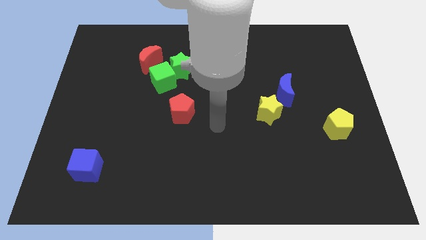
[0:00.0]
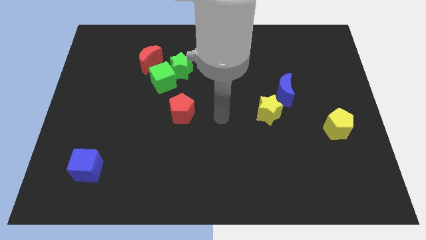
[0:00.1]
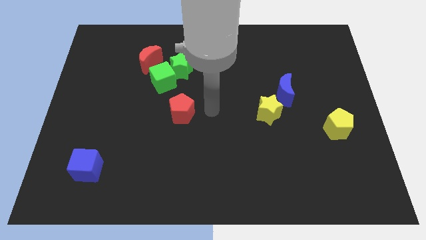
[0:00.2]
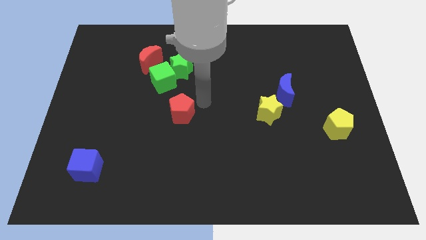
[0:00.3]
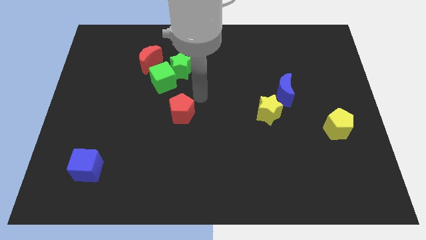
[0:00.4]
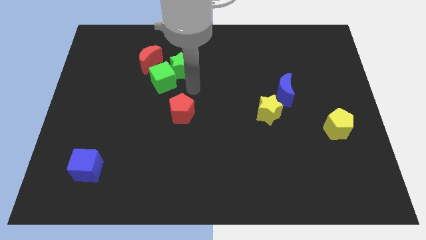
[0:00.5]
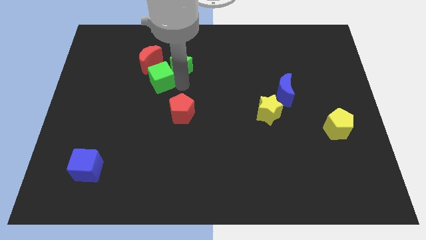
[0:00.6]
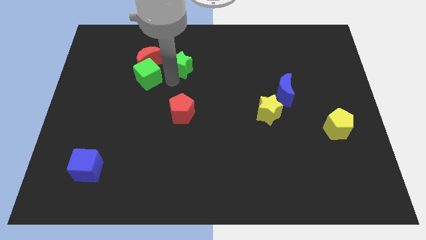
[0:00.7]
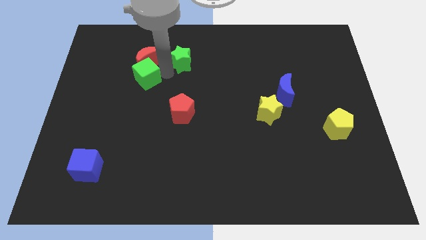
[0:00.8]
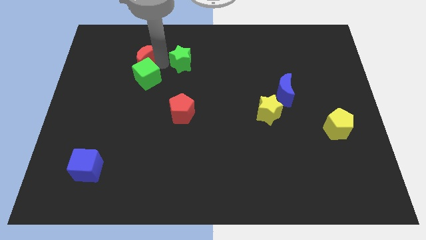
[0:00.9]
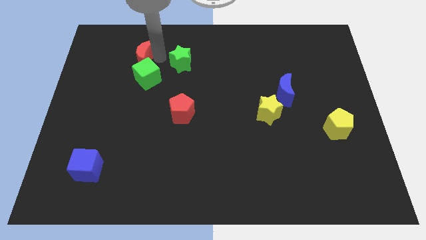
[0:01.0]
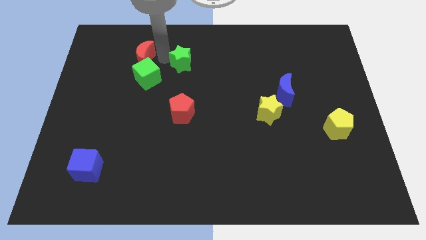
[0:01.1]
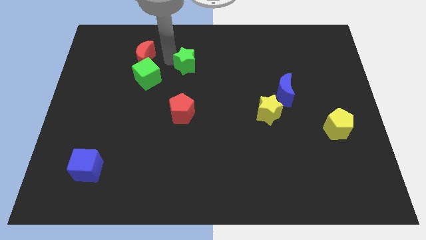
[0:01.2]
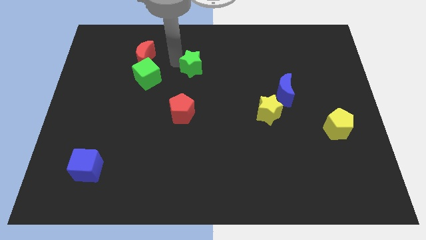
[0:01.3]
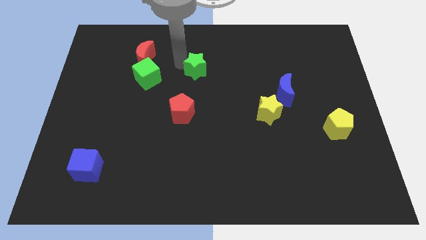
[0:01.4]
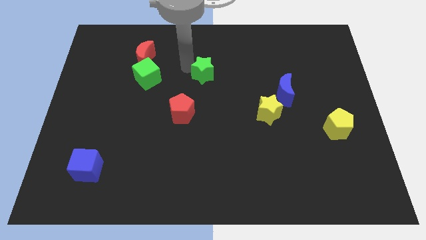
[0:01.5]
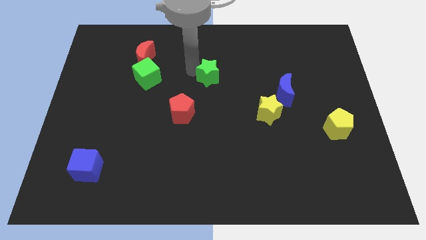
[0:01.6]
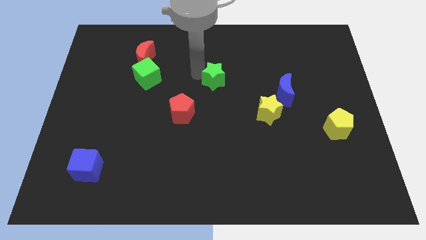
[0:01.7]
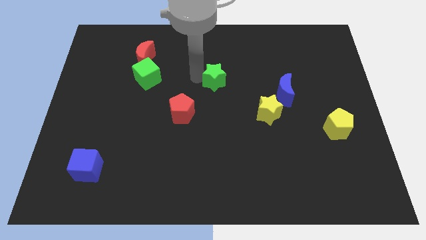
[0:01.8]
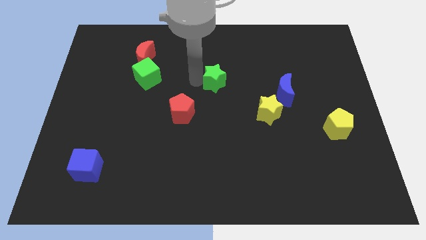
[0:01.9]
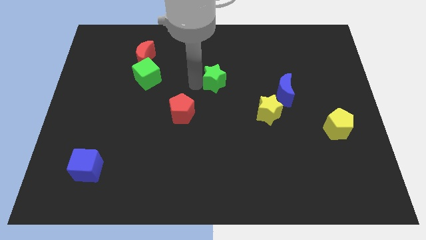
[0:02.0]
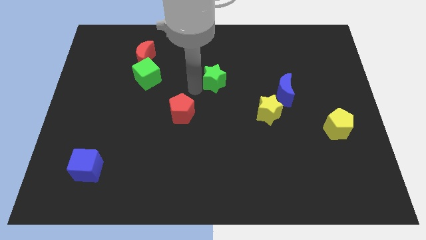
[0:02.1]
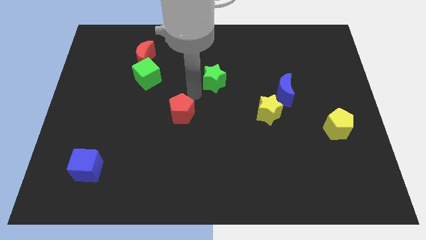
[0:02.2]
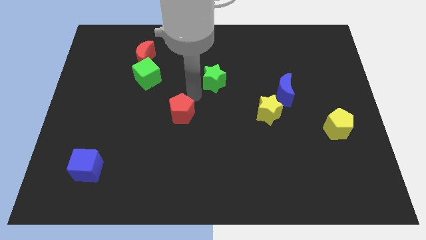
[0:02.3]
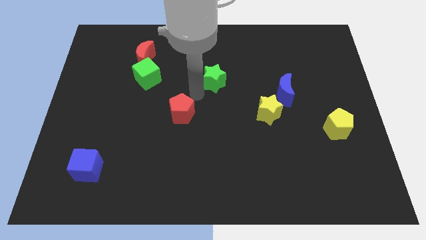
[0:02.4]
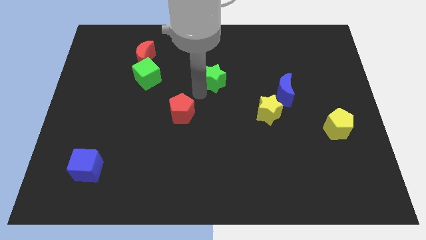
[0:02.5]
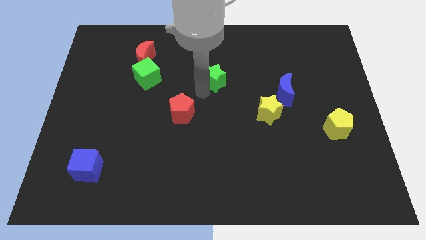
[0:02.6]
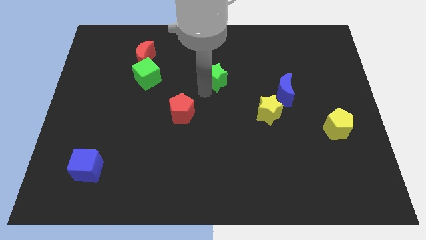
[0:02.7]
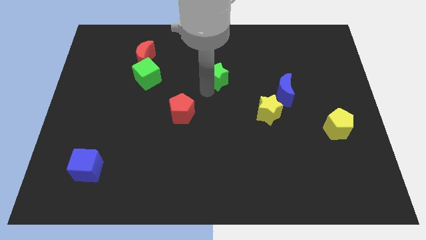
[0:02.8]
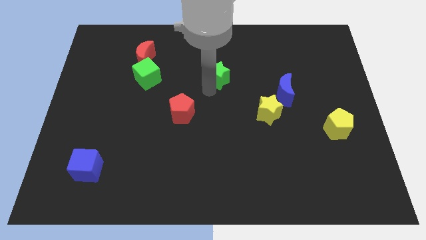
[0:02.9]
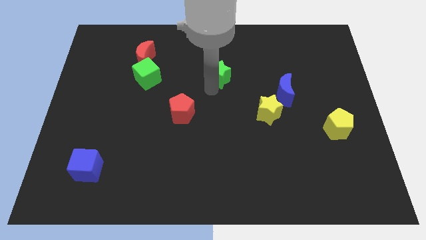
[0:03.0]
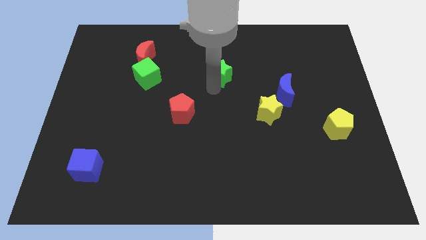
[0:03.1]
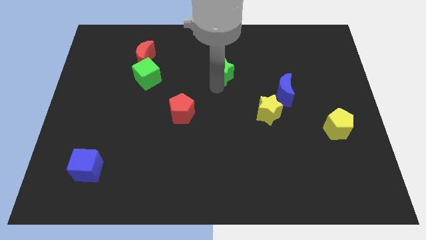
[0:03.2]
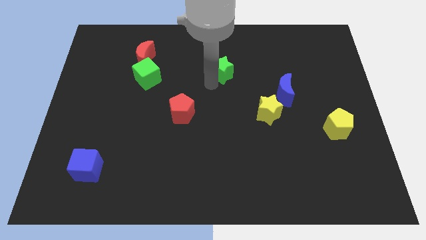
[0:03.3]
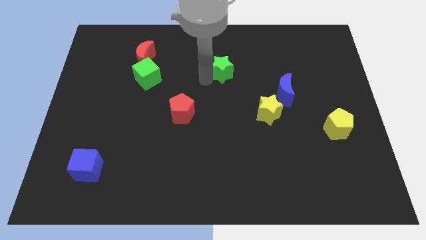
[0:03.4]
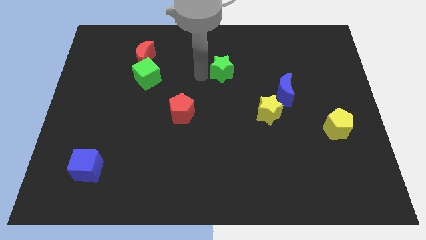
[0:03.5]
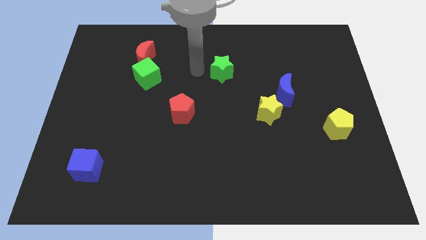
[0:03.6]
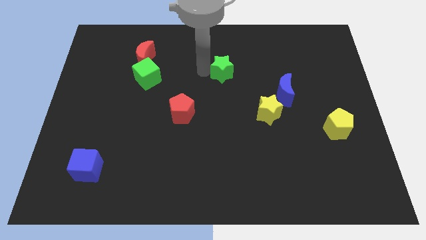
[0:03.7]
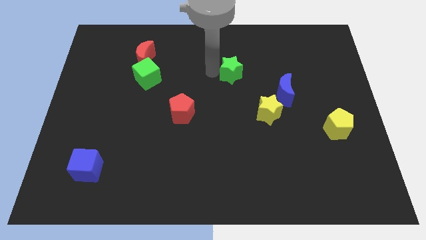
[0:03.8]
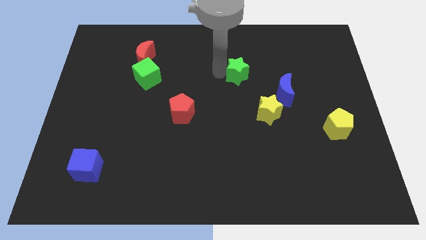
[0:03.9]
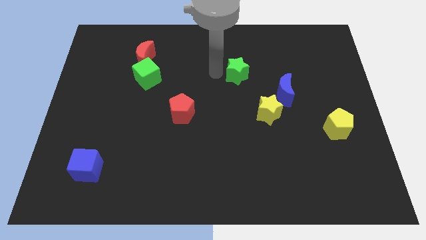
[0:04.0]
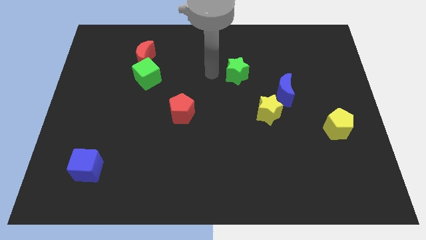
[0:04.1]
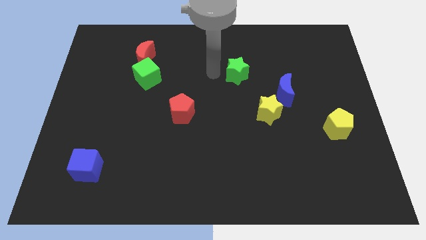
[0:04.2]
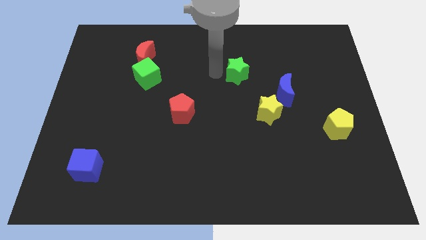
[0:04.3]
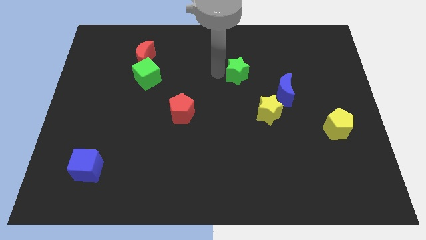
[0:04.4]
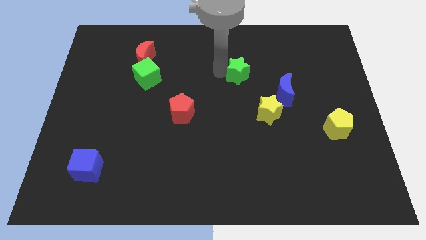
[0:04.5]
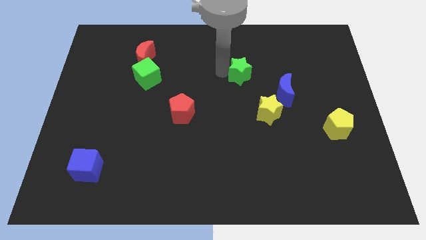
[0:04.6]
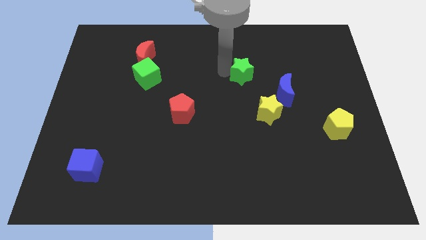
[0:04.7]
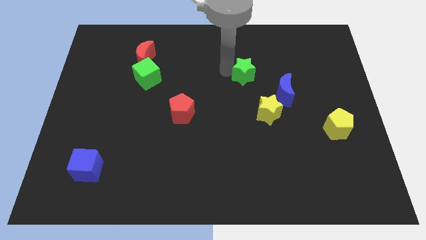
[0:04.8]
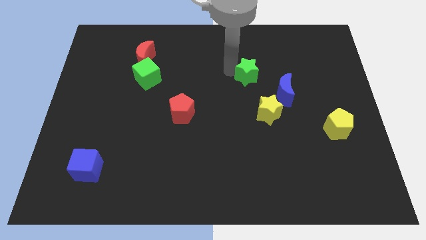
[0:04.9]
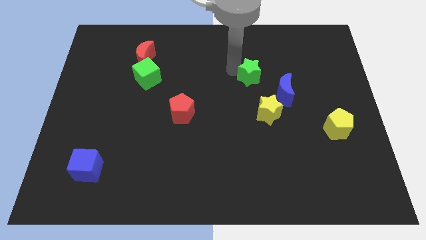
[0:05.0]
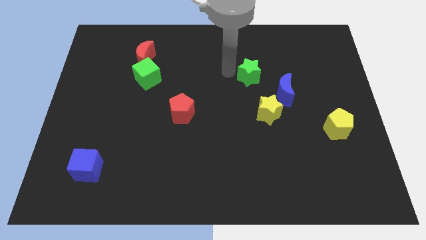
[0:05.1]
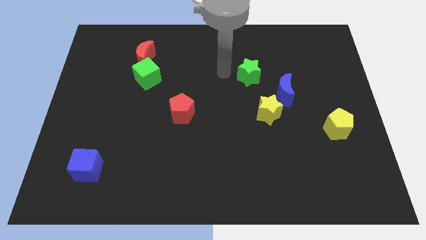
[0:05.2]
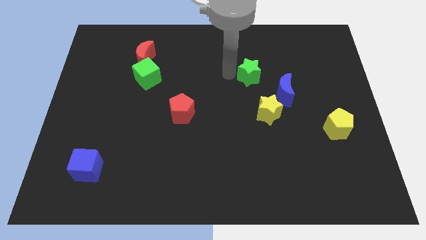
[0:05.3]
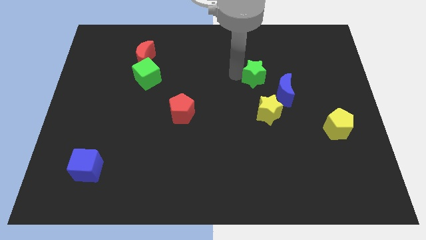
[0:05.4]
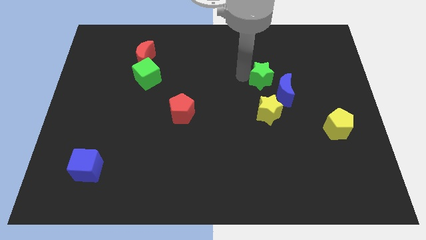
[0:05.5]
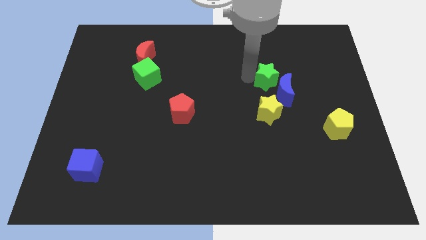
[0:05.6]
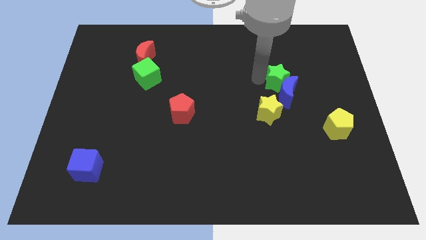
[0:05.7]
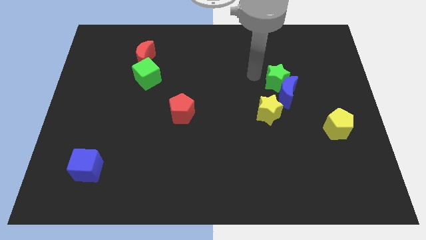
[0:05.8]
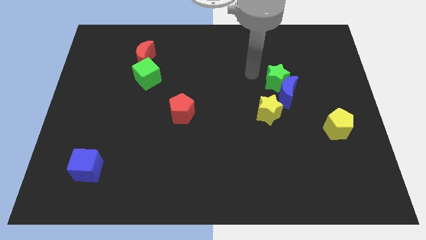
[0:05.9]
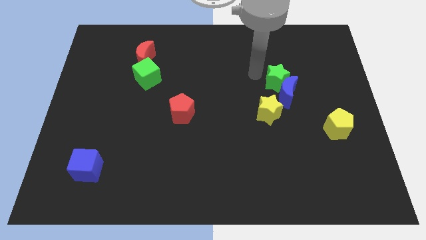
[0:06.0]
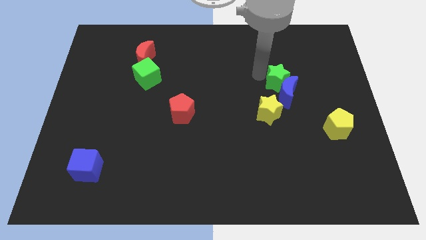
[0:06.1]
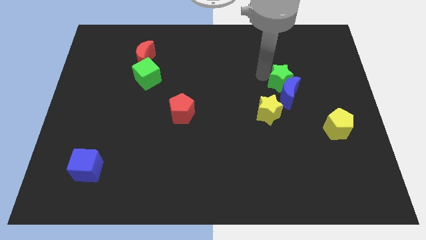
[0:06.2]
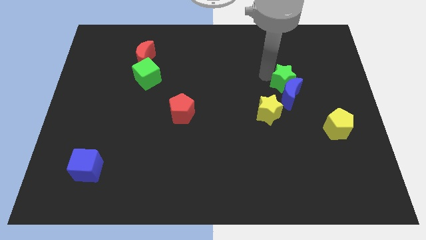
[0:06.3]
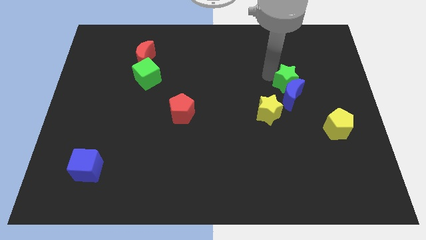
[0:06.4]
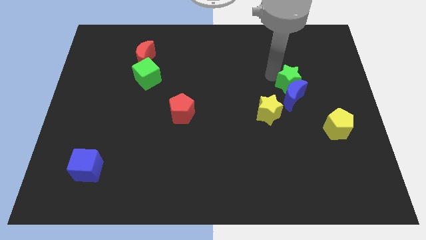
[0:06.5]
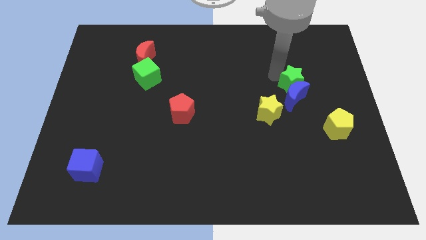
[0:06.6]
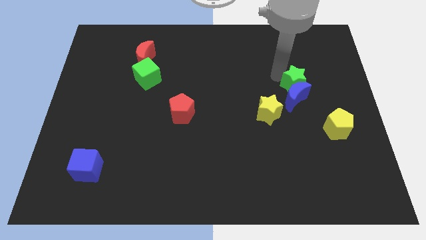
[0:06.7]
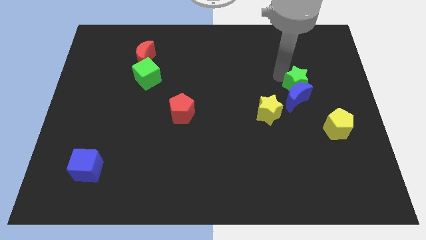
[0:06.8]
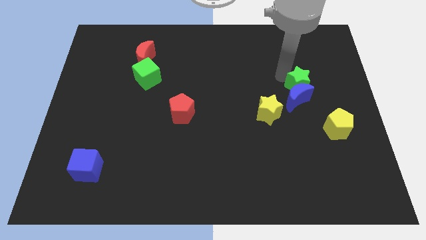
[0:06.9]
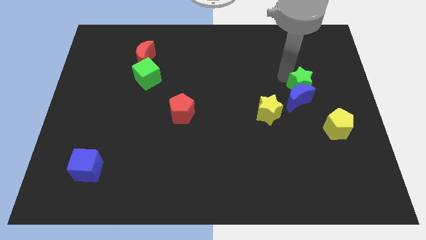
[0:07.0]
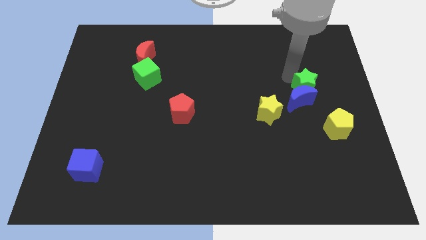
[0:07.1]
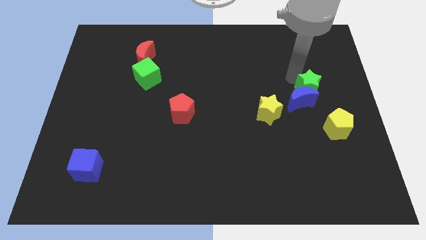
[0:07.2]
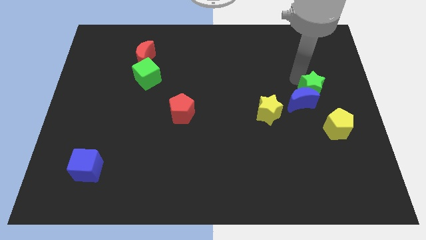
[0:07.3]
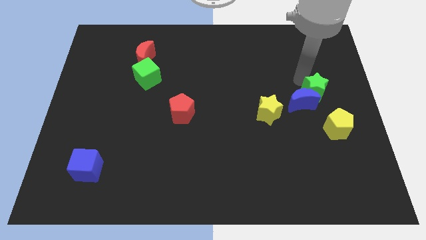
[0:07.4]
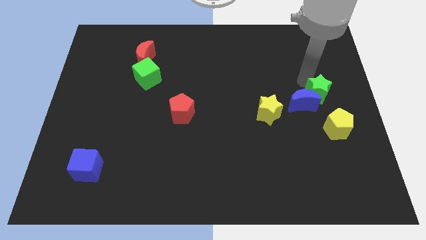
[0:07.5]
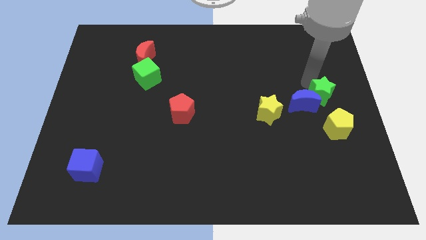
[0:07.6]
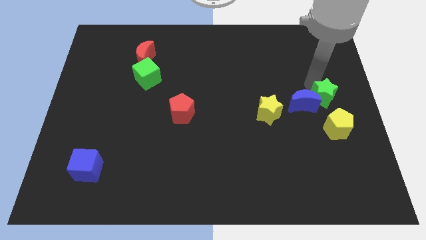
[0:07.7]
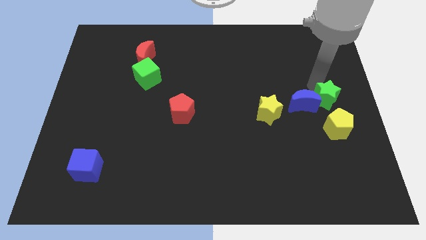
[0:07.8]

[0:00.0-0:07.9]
put the green star to the bottom right side of the blue moon

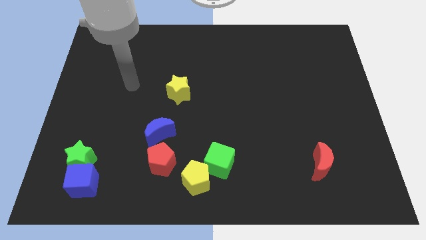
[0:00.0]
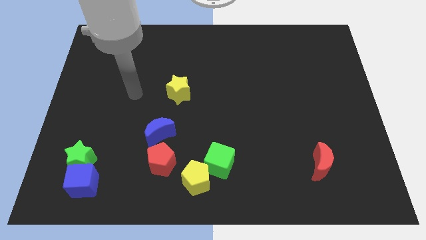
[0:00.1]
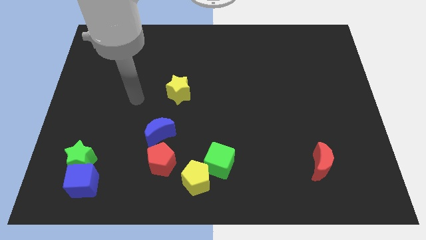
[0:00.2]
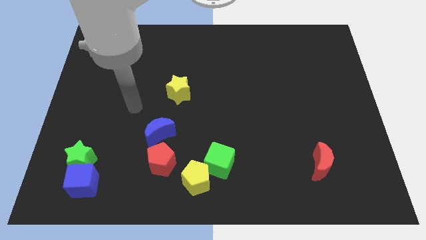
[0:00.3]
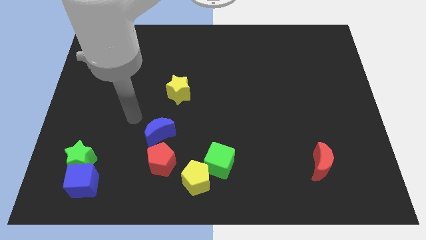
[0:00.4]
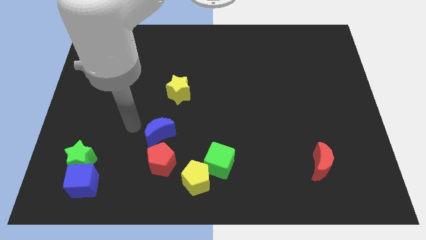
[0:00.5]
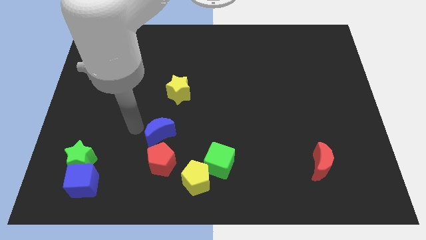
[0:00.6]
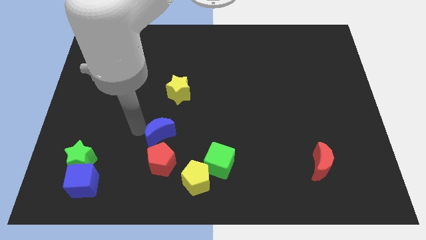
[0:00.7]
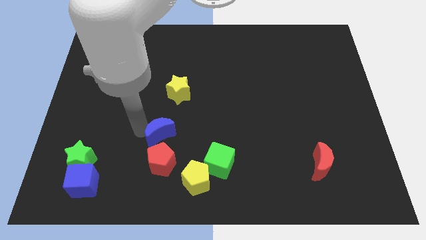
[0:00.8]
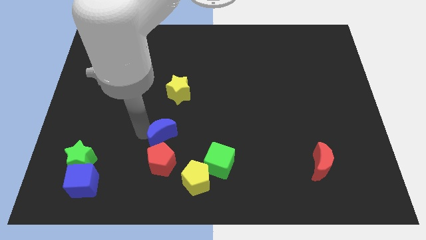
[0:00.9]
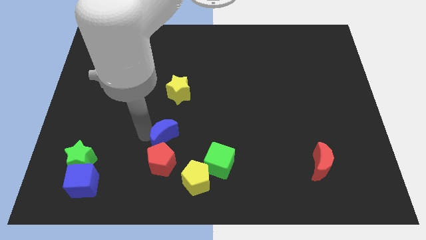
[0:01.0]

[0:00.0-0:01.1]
move the blue moon to the top right of the red pentagon
